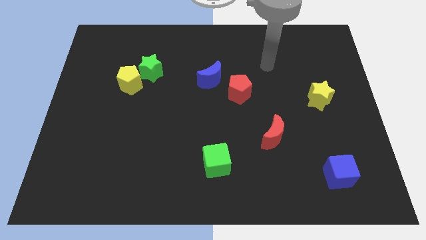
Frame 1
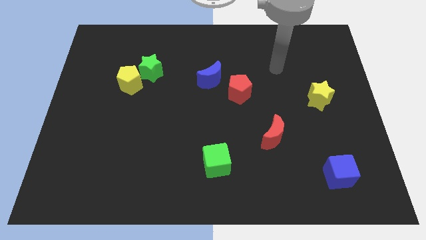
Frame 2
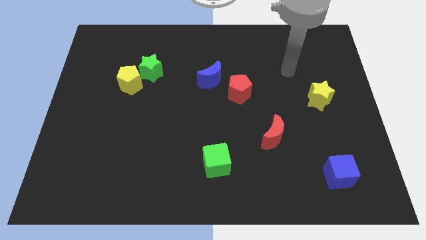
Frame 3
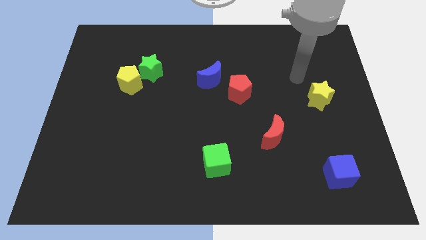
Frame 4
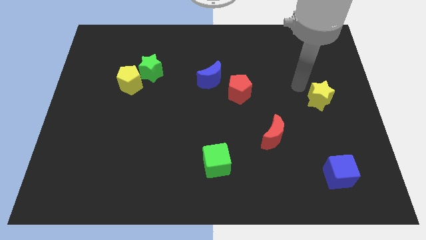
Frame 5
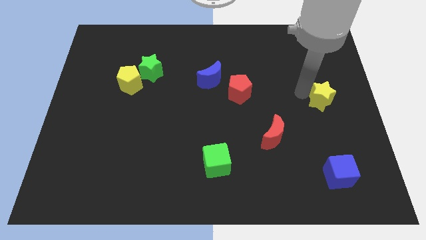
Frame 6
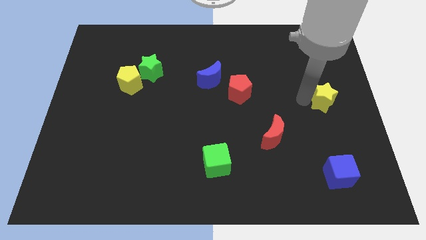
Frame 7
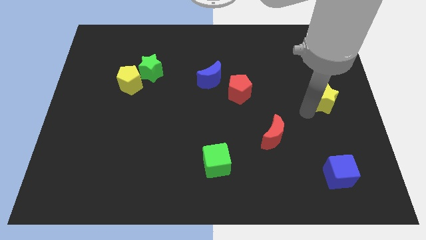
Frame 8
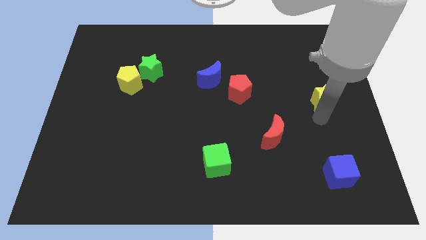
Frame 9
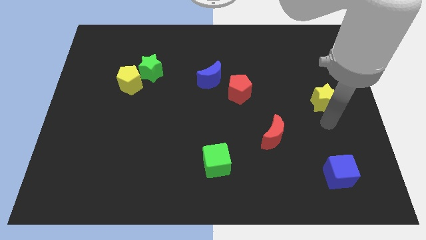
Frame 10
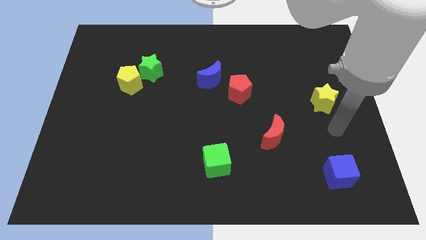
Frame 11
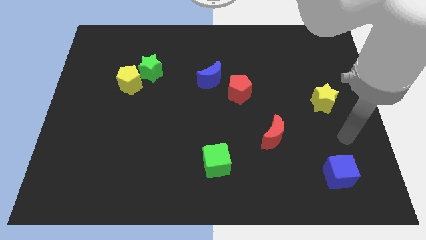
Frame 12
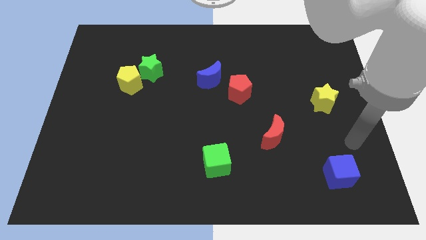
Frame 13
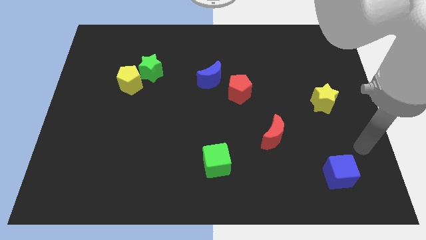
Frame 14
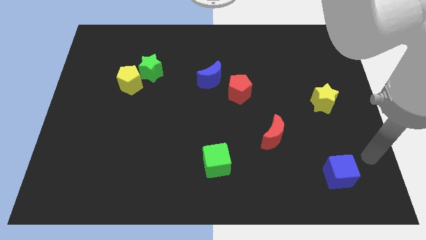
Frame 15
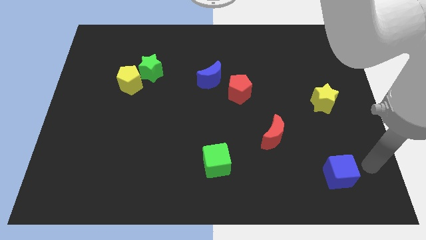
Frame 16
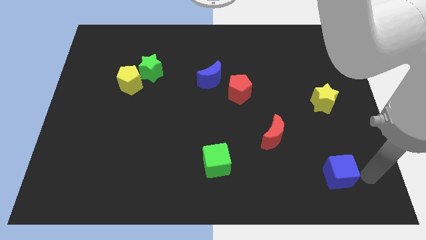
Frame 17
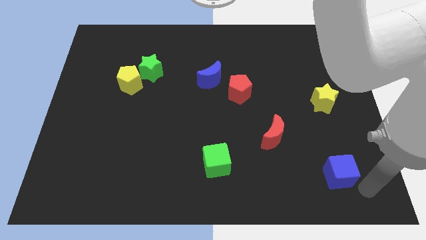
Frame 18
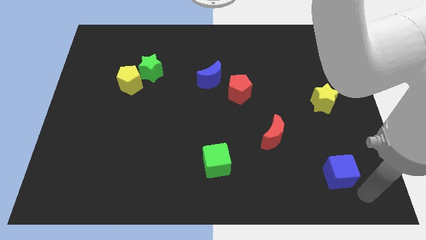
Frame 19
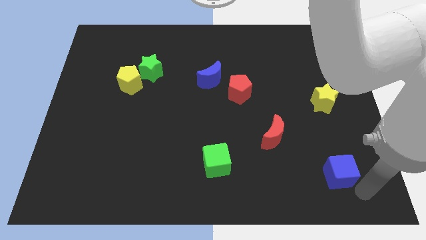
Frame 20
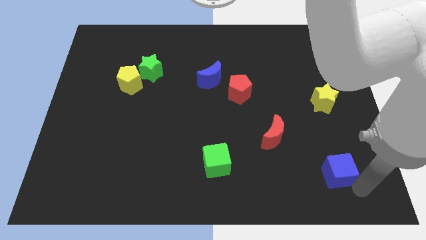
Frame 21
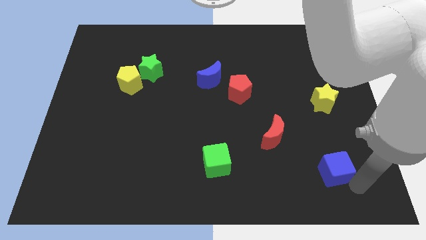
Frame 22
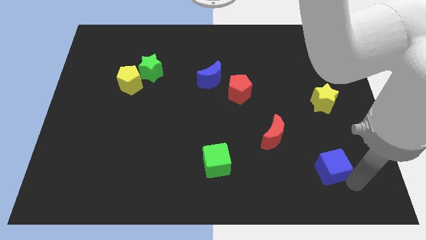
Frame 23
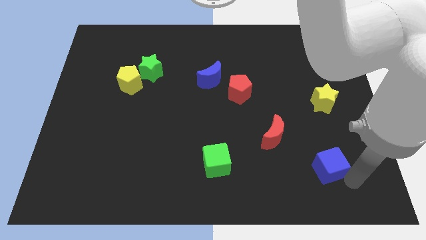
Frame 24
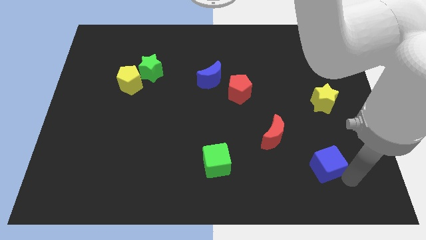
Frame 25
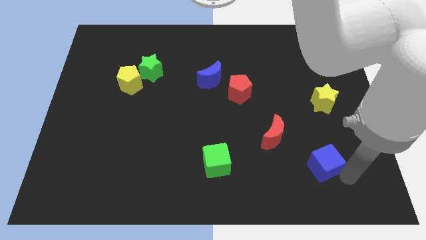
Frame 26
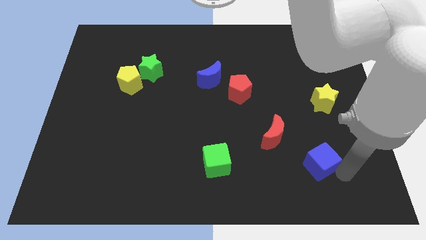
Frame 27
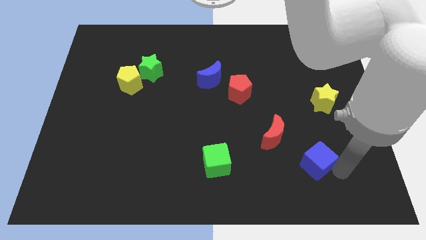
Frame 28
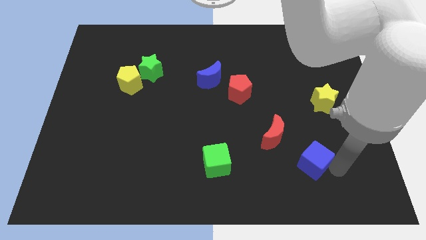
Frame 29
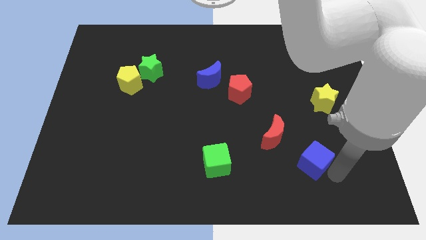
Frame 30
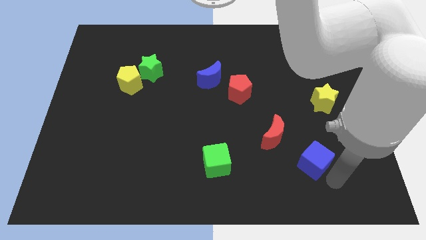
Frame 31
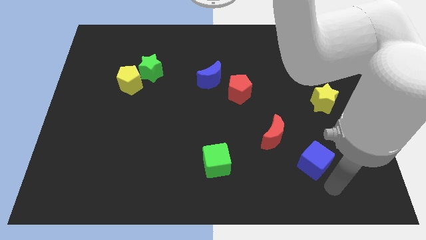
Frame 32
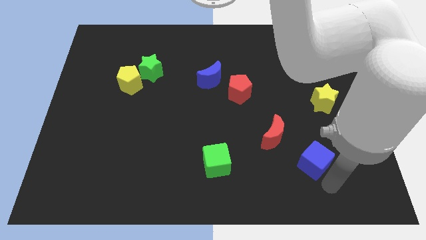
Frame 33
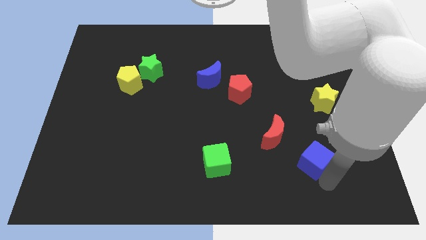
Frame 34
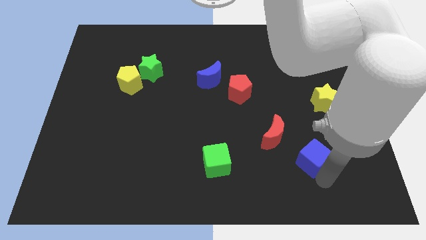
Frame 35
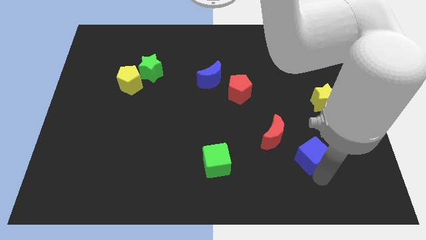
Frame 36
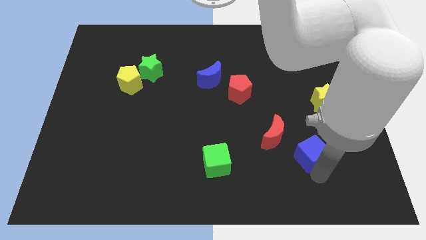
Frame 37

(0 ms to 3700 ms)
move the blue cube upwards and left a bit

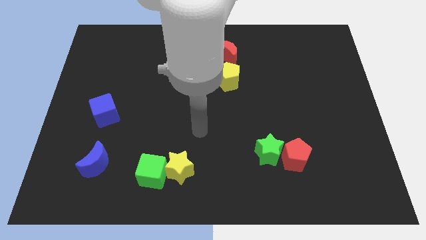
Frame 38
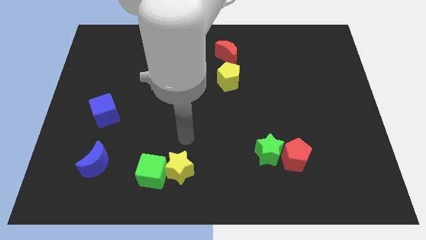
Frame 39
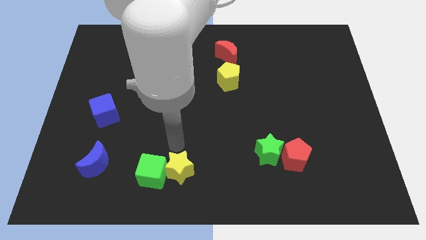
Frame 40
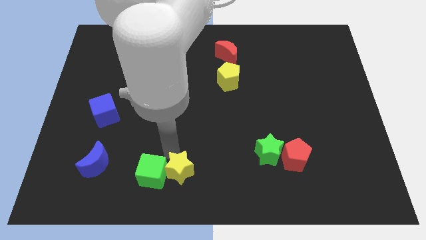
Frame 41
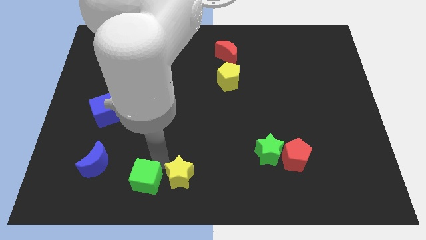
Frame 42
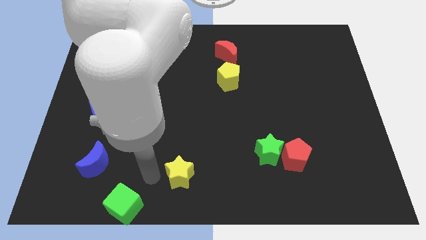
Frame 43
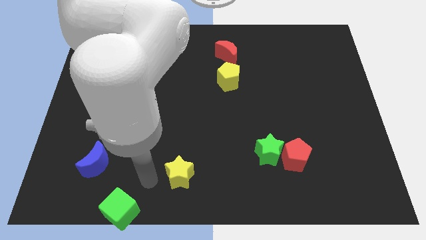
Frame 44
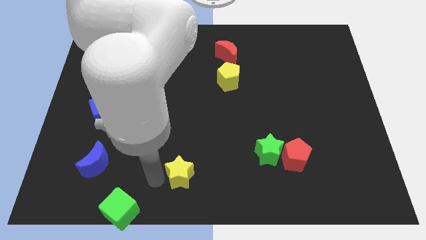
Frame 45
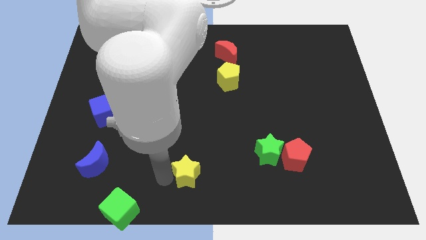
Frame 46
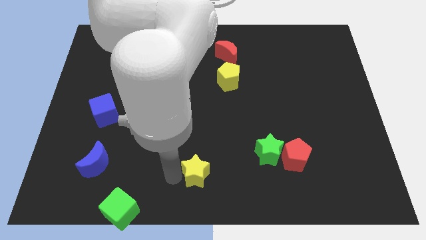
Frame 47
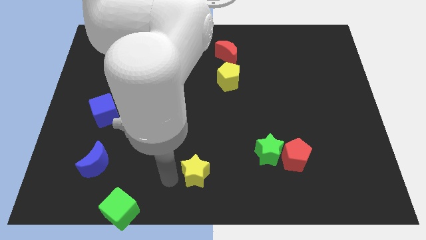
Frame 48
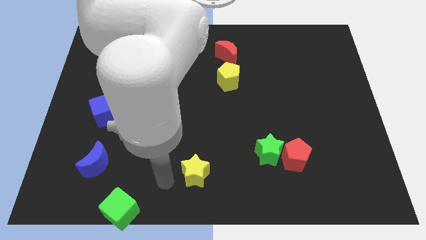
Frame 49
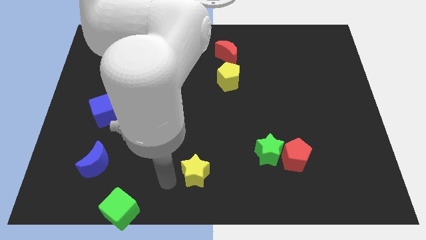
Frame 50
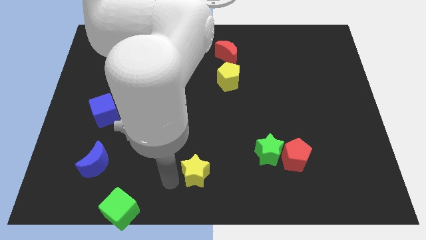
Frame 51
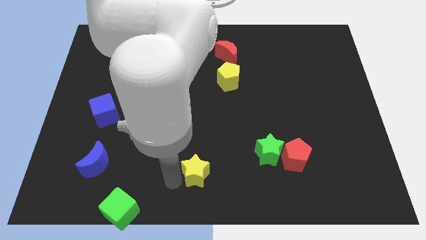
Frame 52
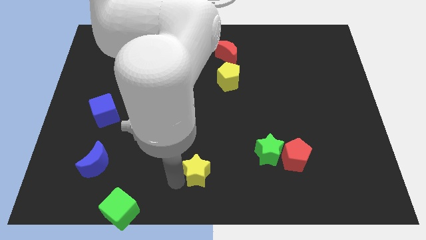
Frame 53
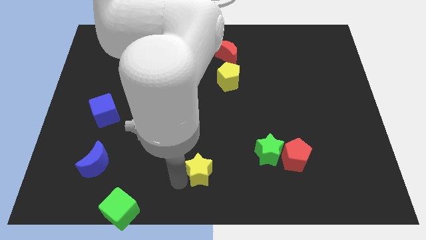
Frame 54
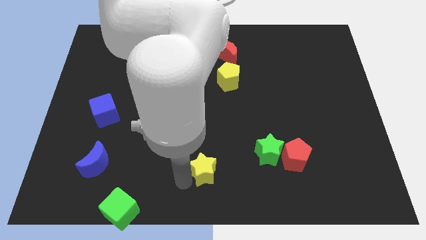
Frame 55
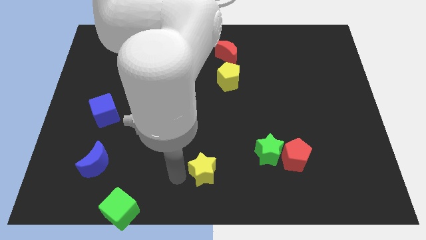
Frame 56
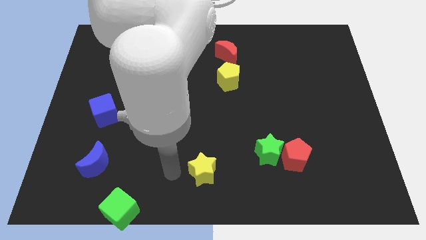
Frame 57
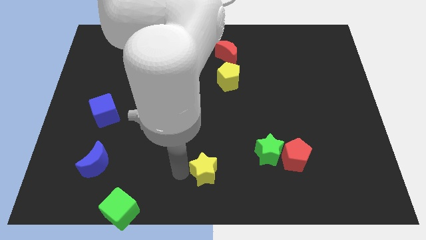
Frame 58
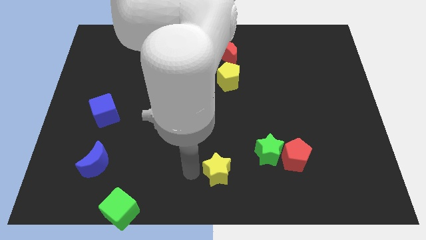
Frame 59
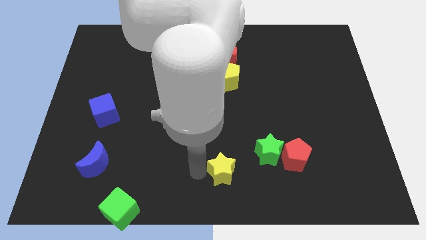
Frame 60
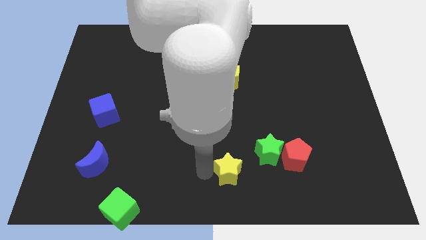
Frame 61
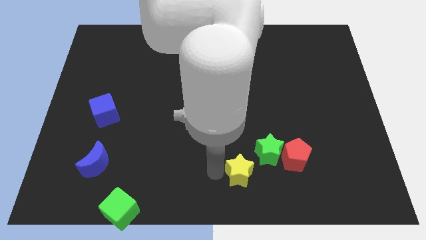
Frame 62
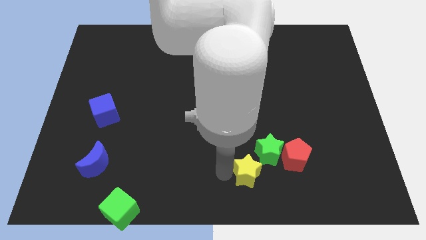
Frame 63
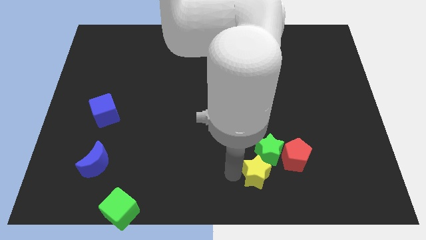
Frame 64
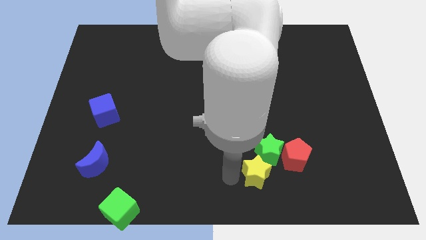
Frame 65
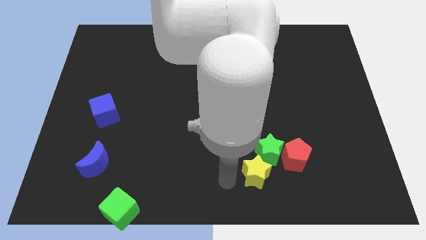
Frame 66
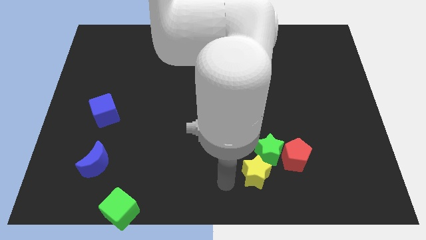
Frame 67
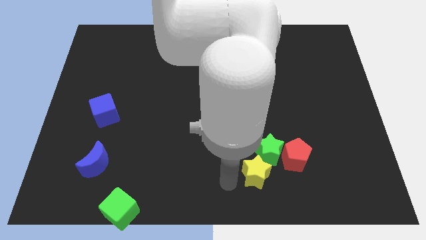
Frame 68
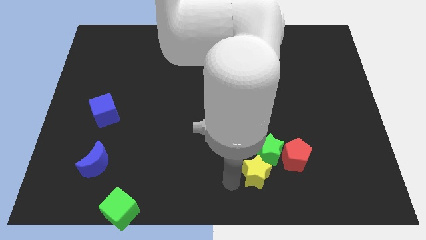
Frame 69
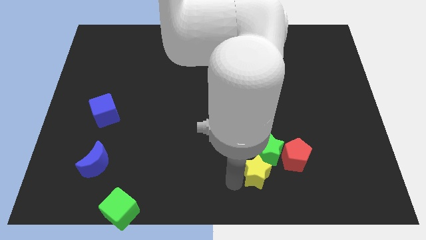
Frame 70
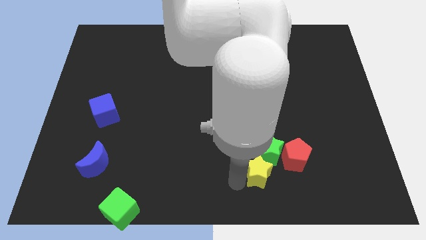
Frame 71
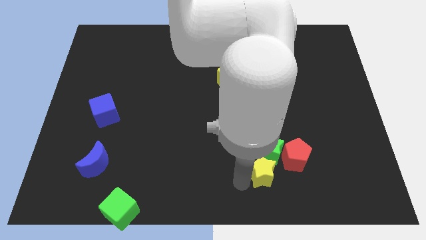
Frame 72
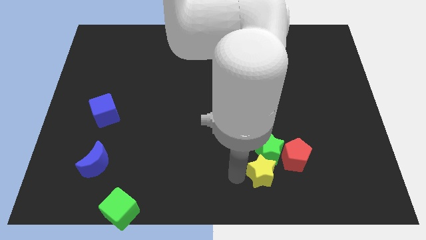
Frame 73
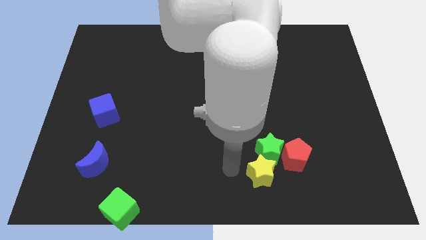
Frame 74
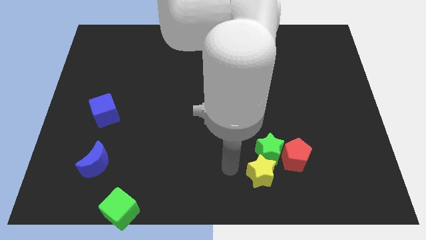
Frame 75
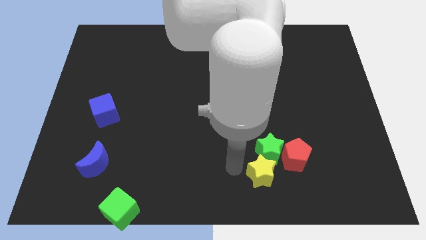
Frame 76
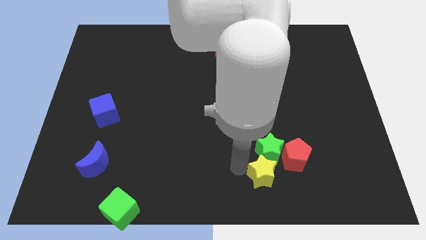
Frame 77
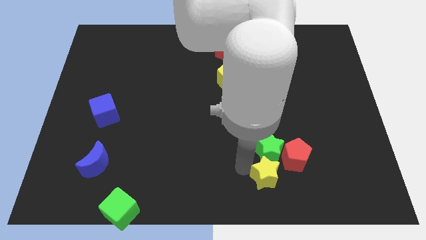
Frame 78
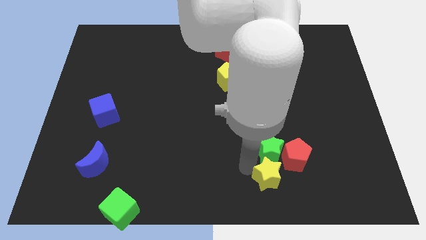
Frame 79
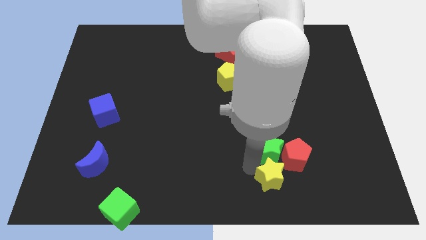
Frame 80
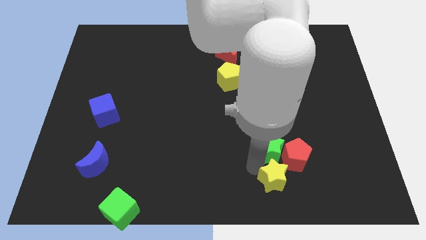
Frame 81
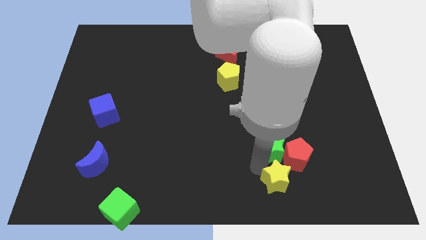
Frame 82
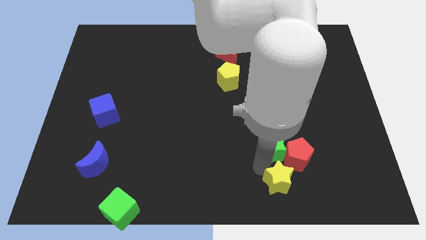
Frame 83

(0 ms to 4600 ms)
move the yellow star right
